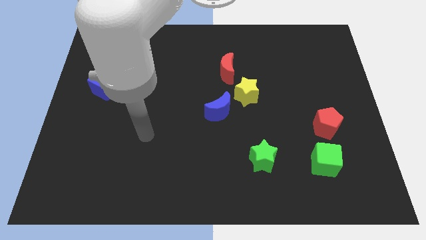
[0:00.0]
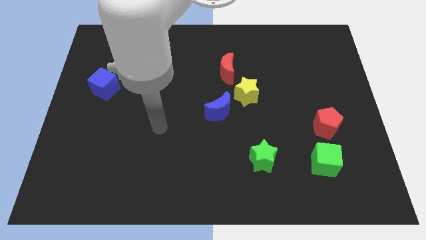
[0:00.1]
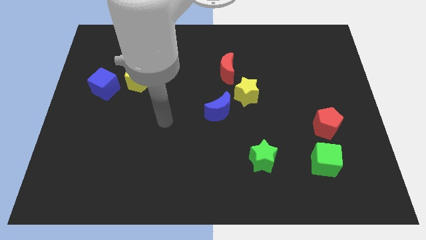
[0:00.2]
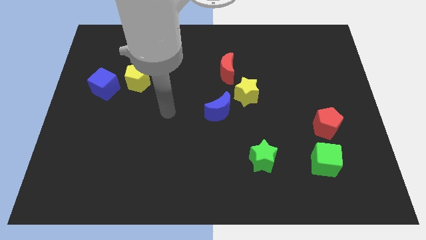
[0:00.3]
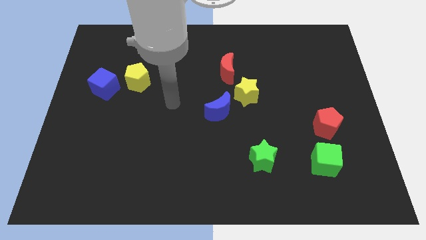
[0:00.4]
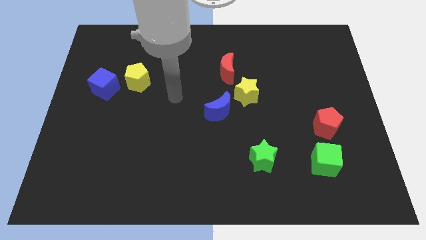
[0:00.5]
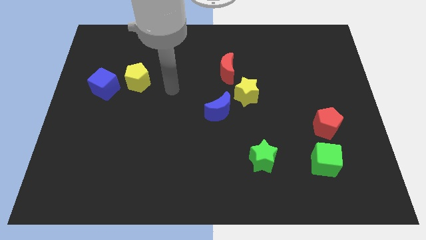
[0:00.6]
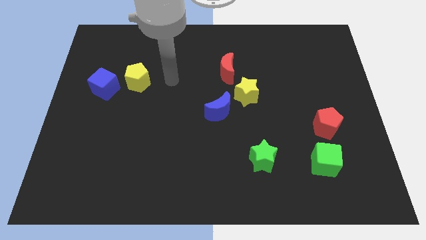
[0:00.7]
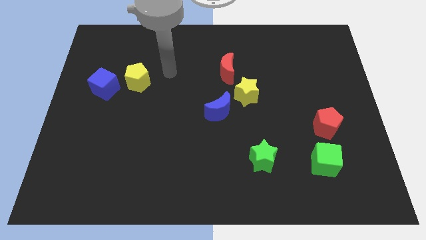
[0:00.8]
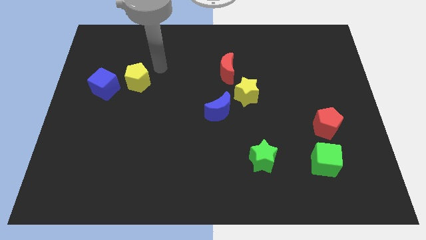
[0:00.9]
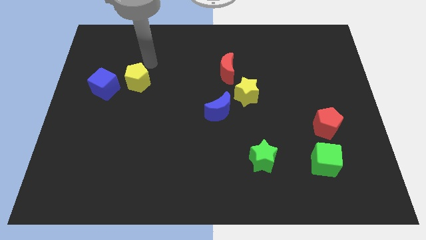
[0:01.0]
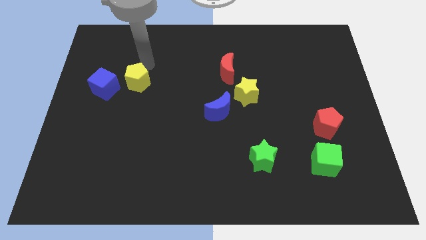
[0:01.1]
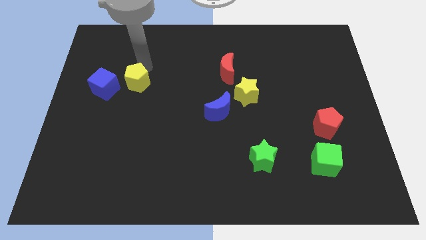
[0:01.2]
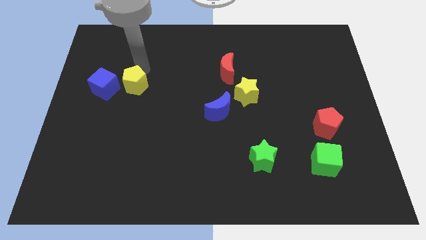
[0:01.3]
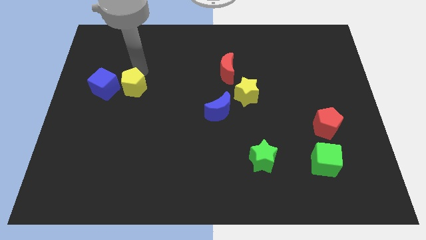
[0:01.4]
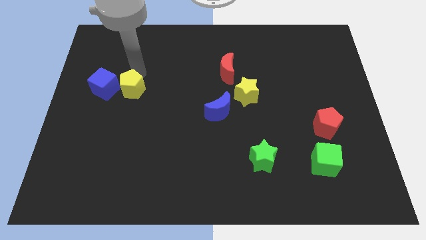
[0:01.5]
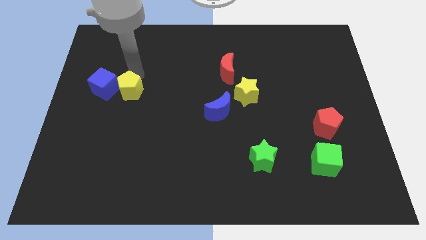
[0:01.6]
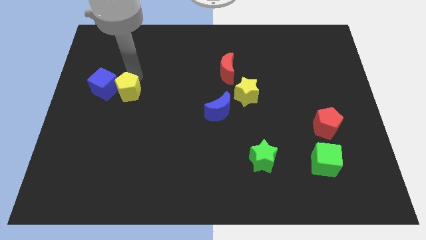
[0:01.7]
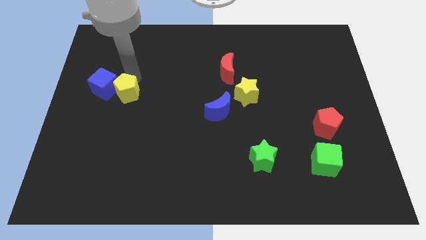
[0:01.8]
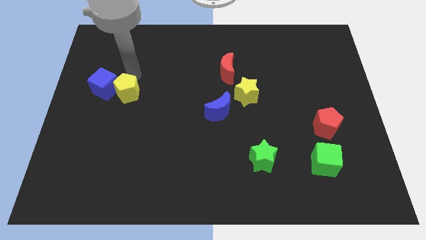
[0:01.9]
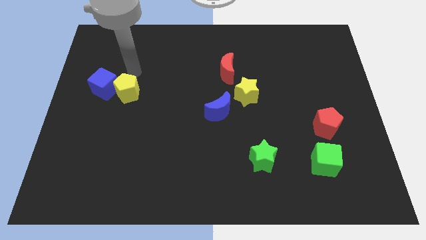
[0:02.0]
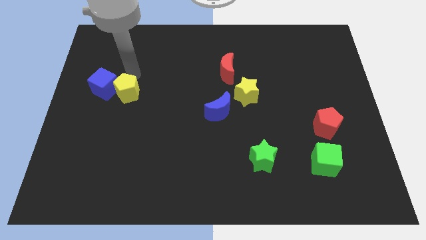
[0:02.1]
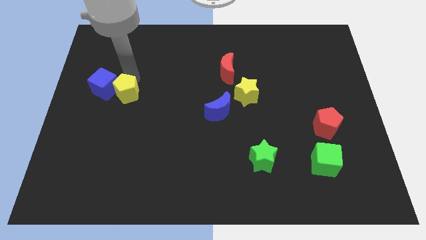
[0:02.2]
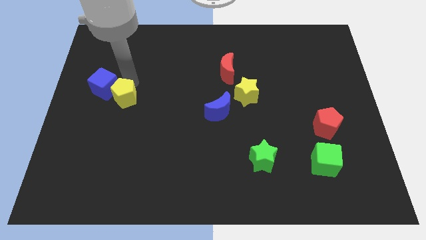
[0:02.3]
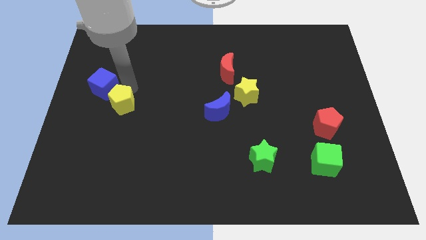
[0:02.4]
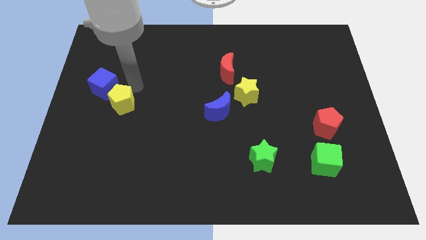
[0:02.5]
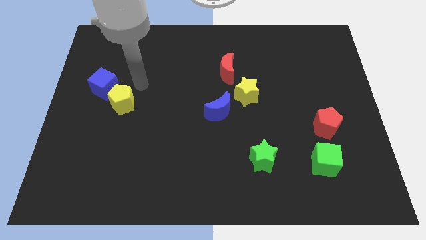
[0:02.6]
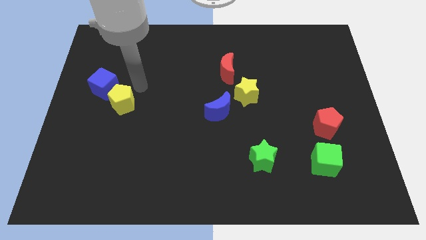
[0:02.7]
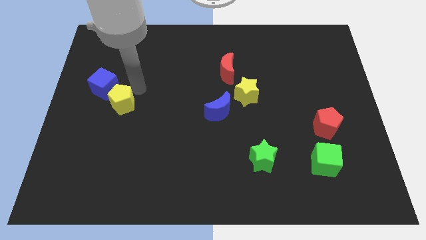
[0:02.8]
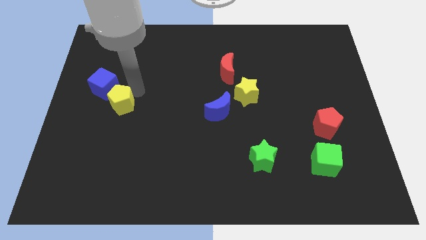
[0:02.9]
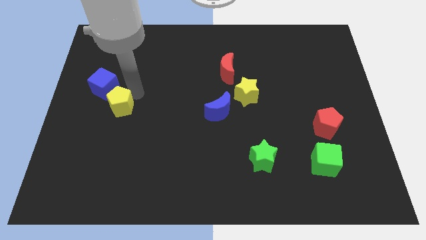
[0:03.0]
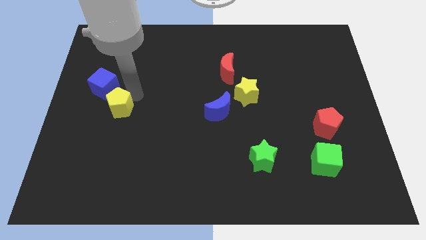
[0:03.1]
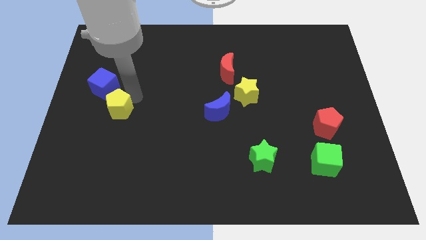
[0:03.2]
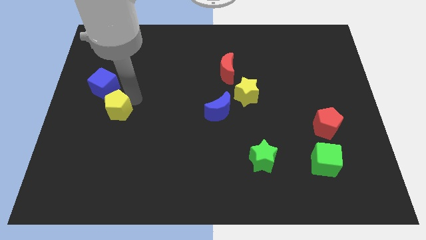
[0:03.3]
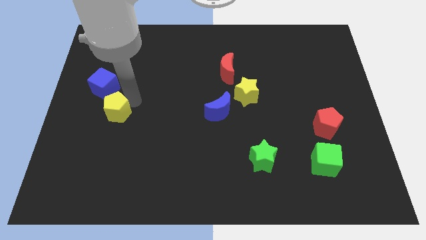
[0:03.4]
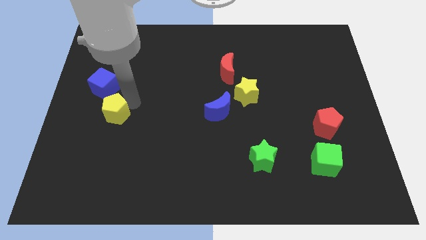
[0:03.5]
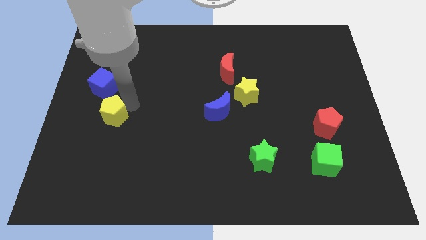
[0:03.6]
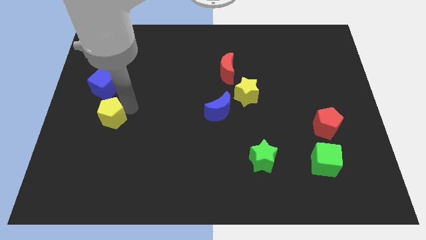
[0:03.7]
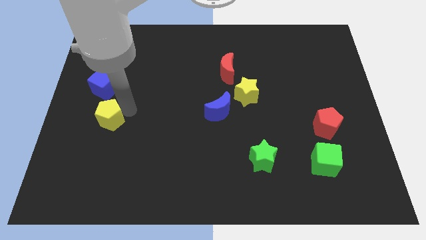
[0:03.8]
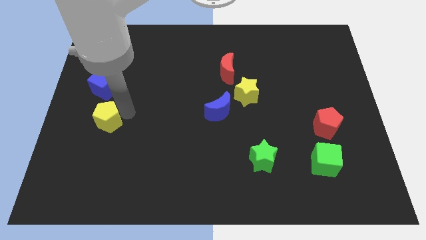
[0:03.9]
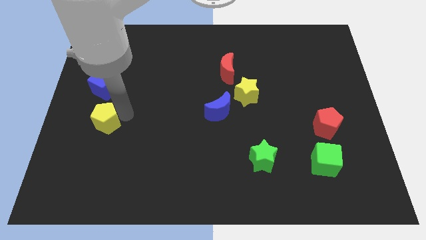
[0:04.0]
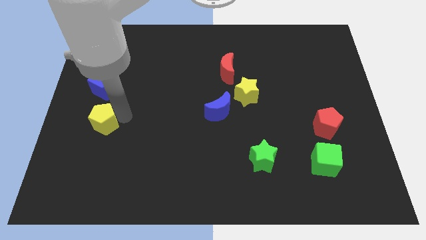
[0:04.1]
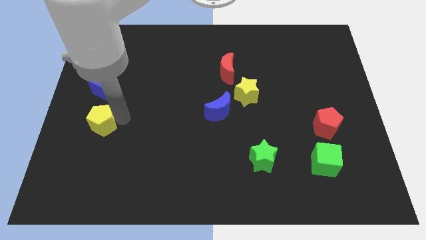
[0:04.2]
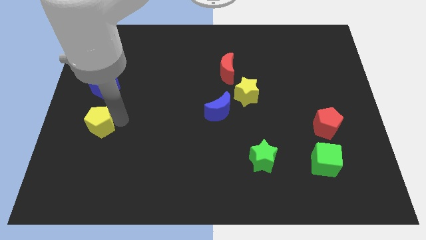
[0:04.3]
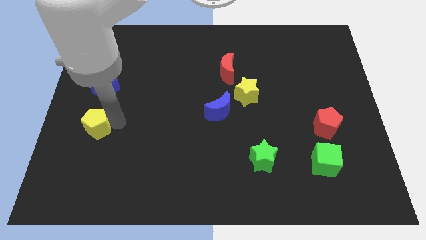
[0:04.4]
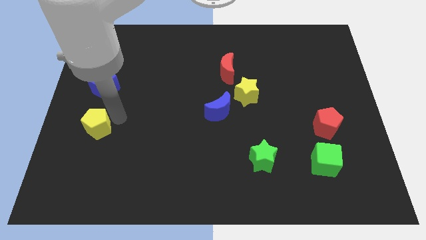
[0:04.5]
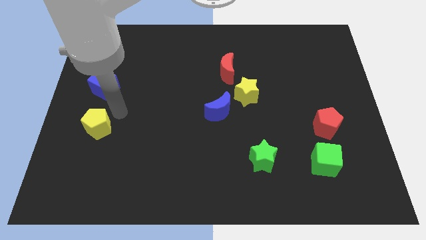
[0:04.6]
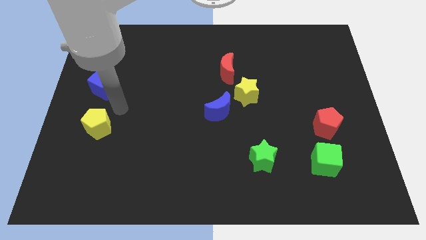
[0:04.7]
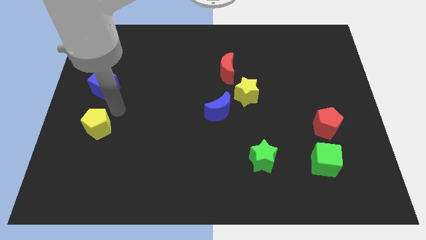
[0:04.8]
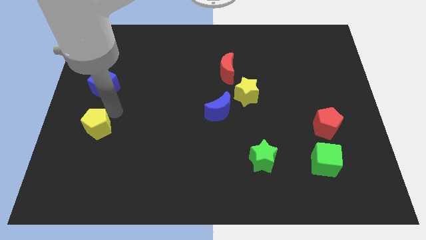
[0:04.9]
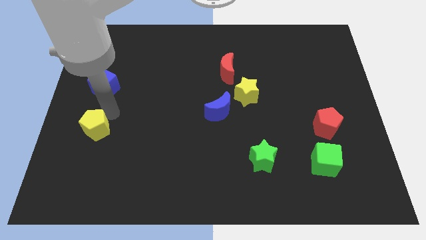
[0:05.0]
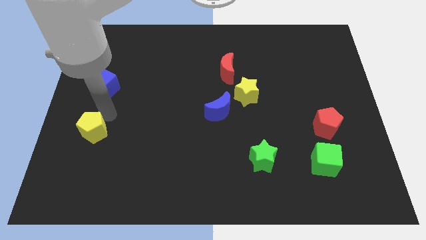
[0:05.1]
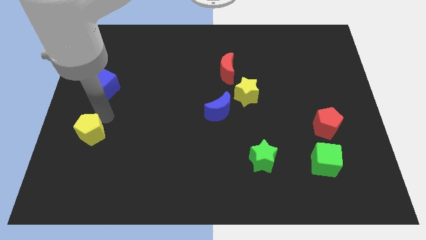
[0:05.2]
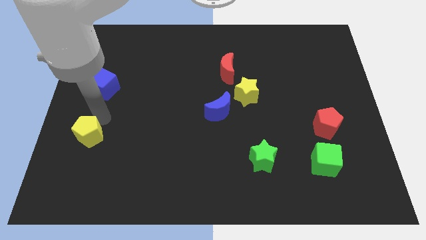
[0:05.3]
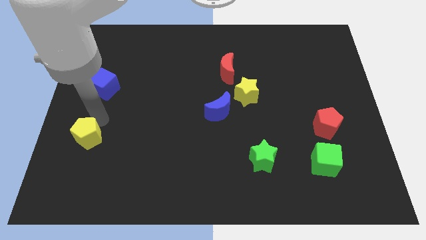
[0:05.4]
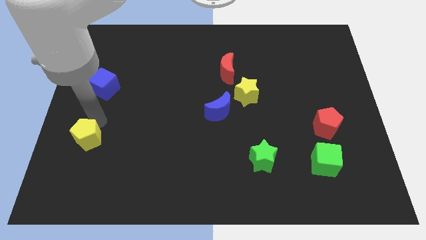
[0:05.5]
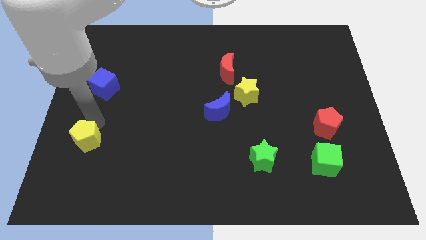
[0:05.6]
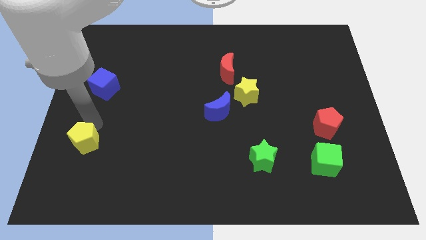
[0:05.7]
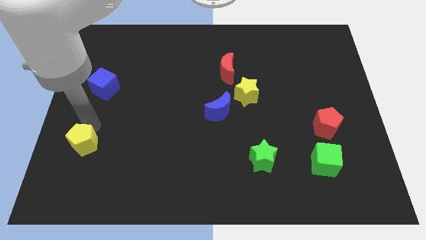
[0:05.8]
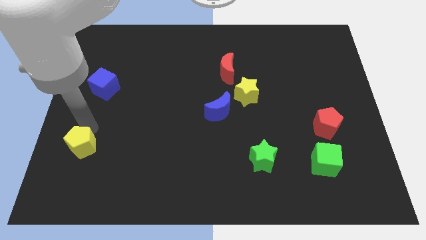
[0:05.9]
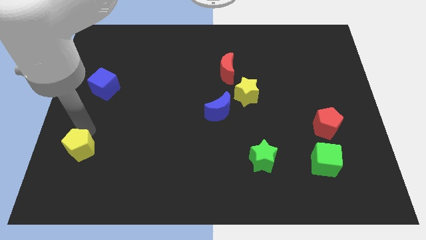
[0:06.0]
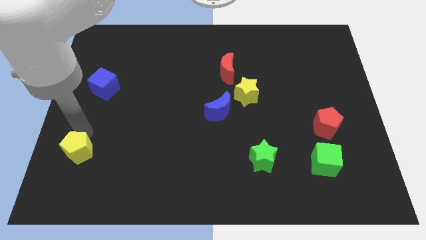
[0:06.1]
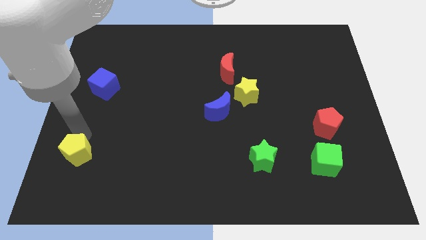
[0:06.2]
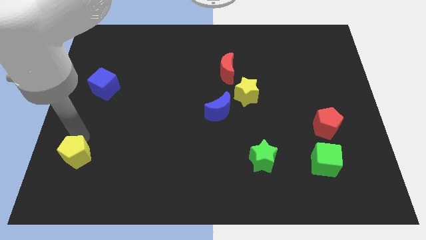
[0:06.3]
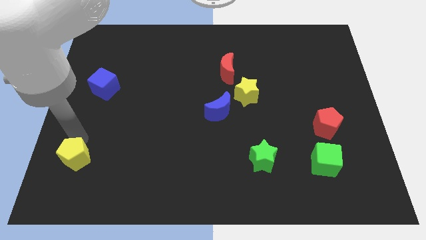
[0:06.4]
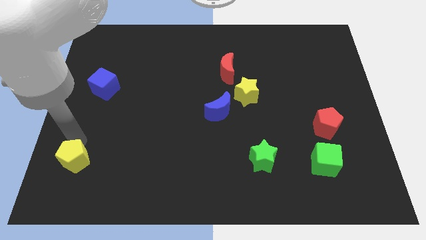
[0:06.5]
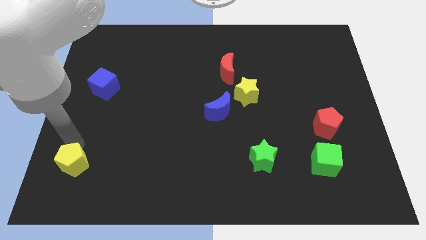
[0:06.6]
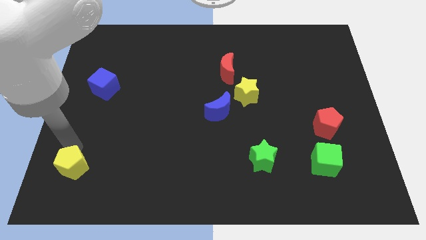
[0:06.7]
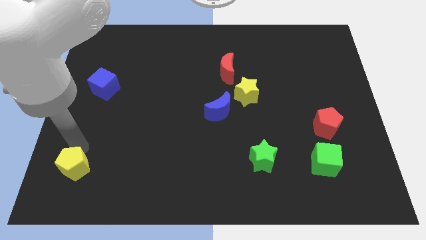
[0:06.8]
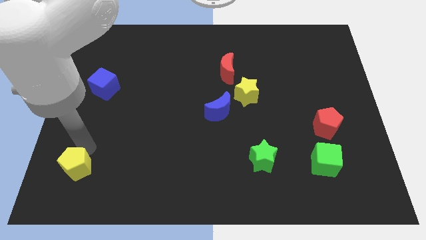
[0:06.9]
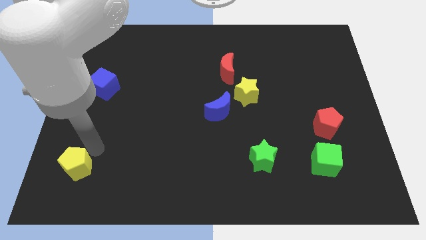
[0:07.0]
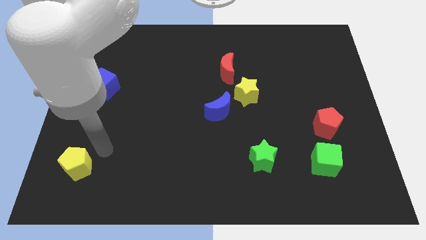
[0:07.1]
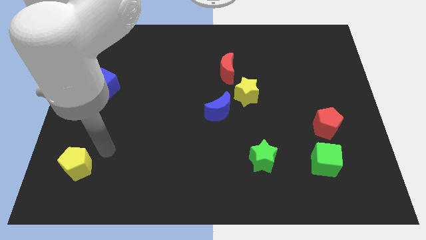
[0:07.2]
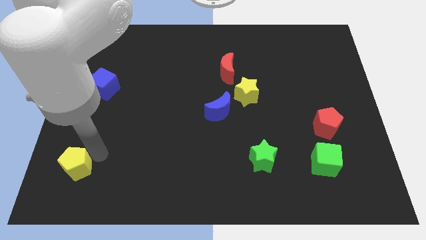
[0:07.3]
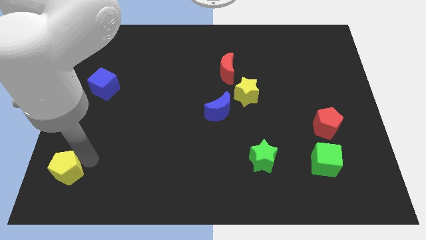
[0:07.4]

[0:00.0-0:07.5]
put the yellow pentagon to the bottom left corner

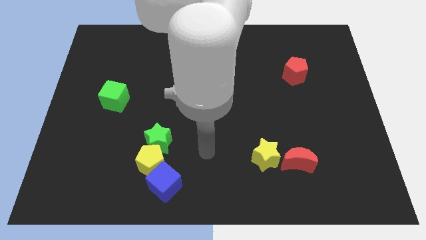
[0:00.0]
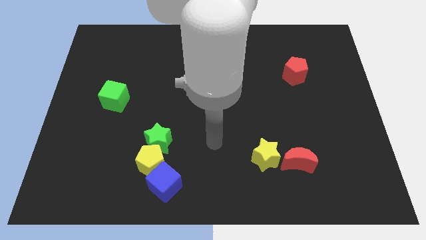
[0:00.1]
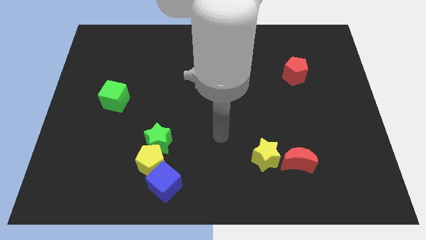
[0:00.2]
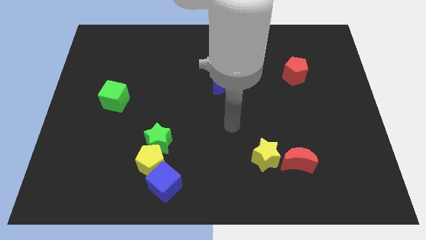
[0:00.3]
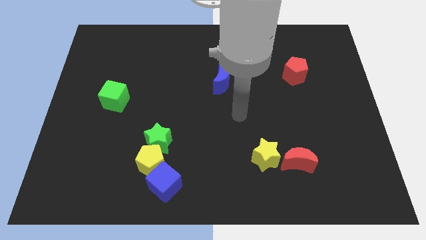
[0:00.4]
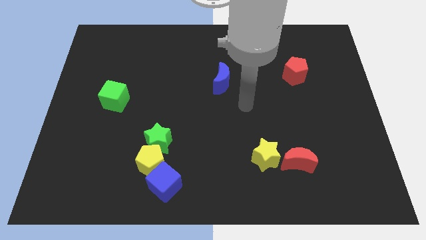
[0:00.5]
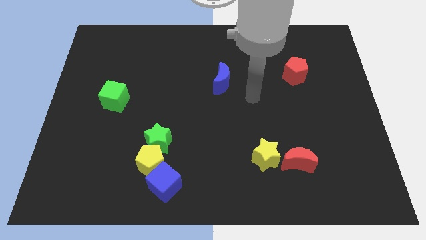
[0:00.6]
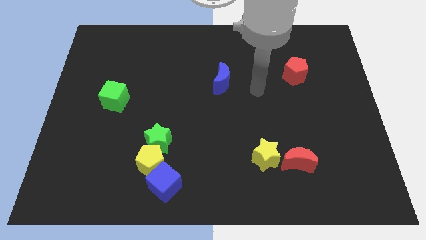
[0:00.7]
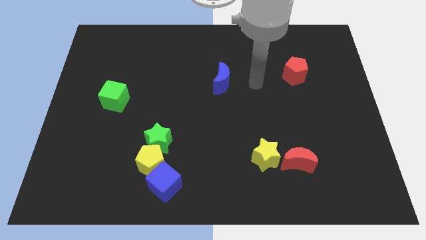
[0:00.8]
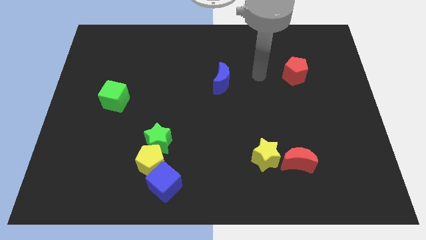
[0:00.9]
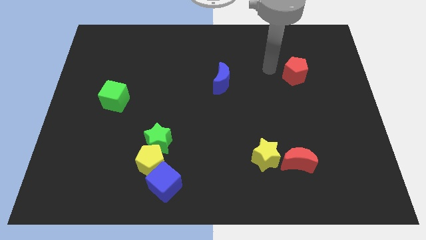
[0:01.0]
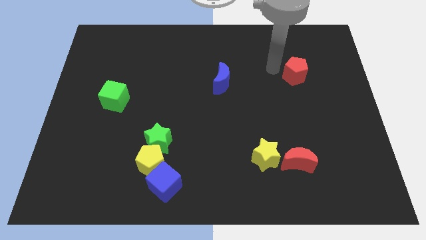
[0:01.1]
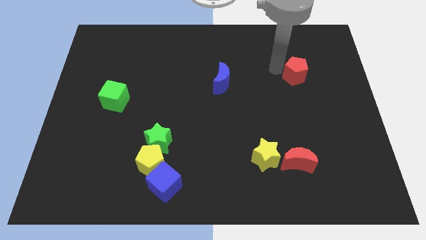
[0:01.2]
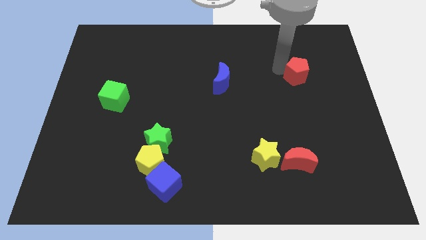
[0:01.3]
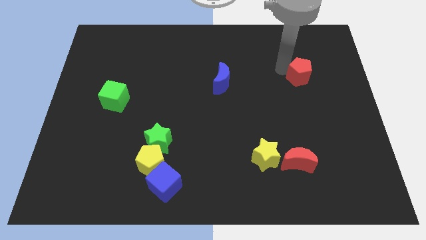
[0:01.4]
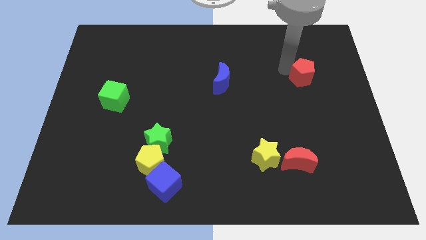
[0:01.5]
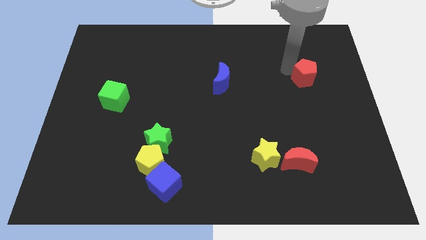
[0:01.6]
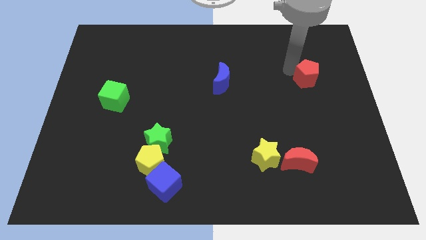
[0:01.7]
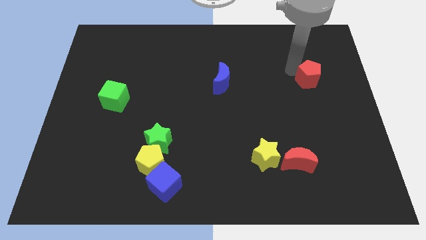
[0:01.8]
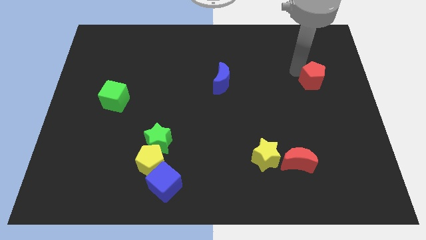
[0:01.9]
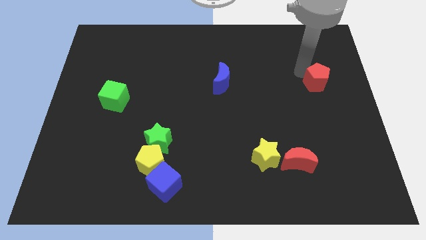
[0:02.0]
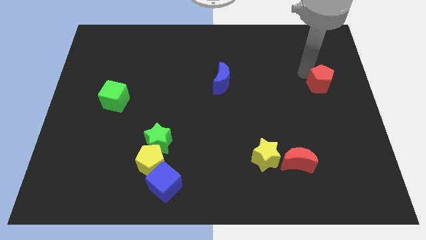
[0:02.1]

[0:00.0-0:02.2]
slide the red pentagon to the right side of the board
